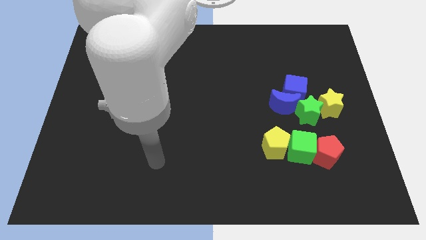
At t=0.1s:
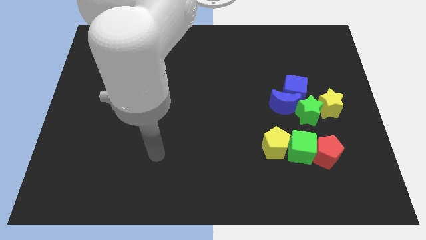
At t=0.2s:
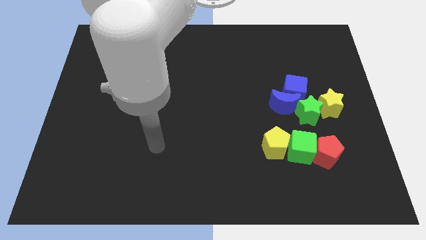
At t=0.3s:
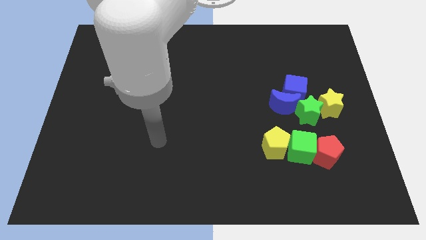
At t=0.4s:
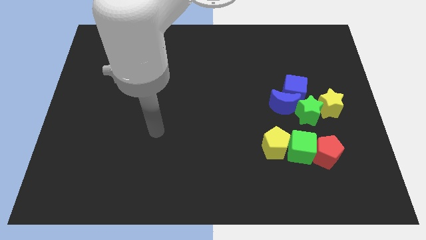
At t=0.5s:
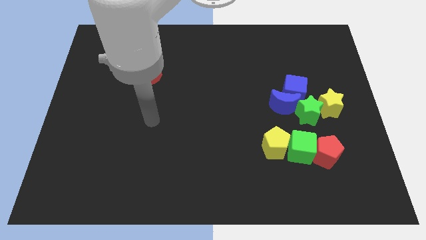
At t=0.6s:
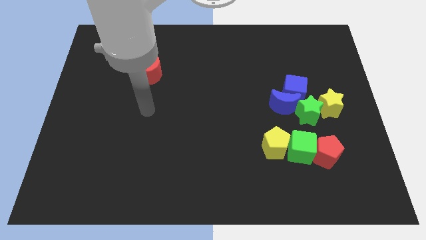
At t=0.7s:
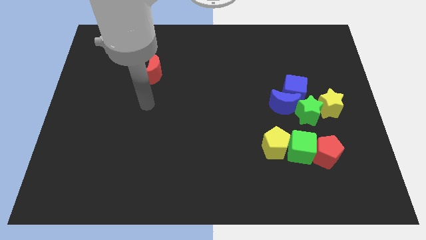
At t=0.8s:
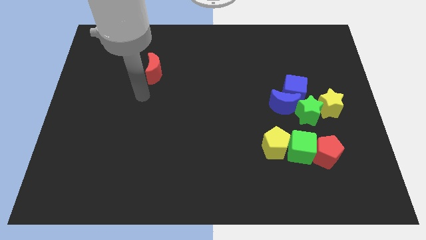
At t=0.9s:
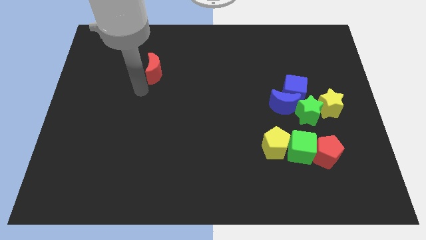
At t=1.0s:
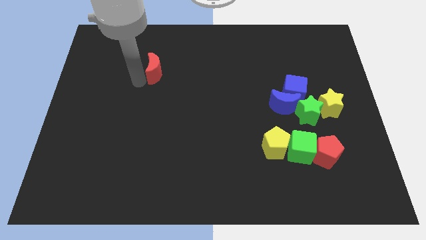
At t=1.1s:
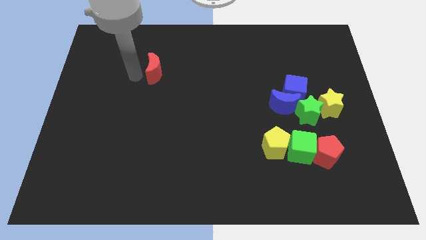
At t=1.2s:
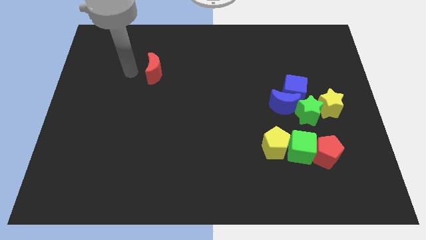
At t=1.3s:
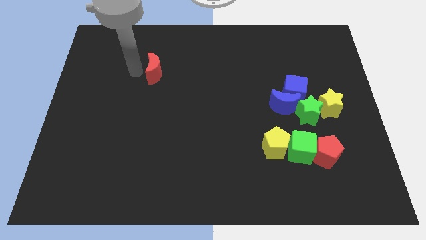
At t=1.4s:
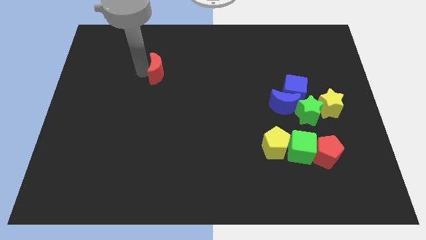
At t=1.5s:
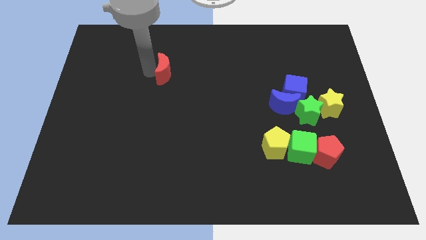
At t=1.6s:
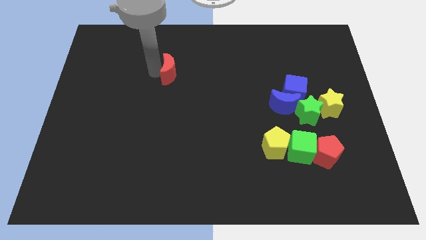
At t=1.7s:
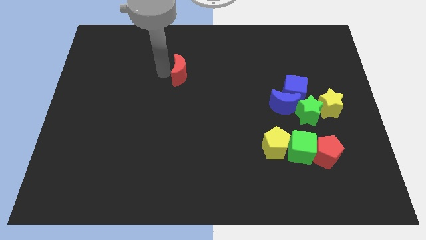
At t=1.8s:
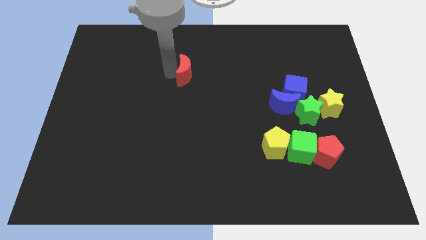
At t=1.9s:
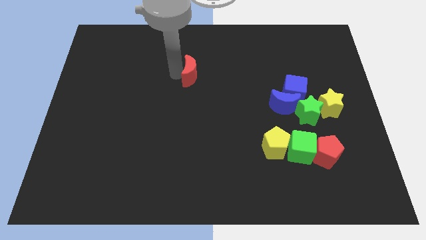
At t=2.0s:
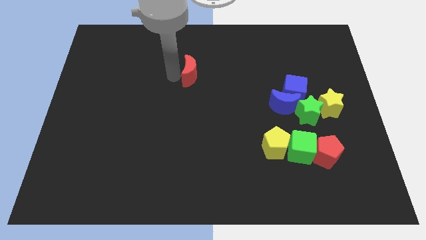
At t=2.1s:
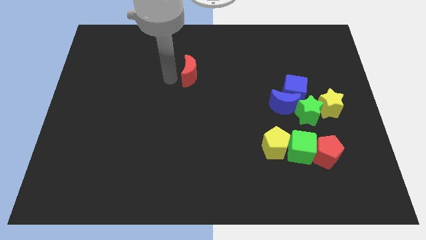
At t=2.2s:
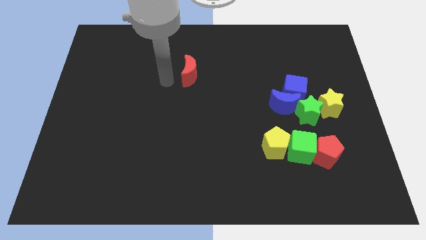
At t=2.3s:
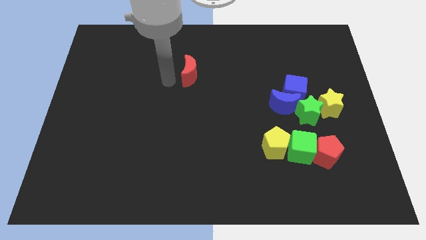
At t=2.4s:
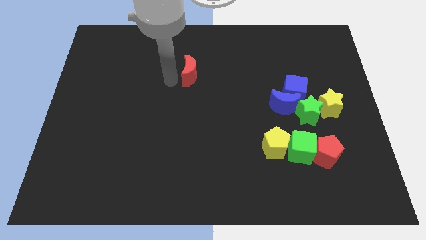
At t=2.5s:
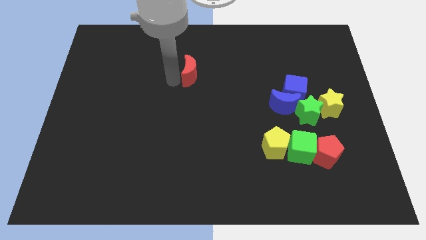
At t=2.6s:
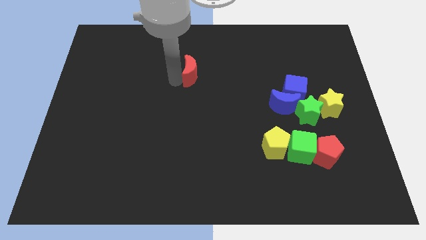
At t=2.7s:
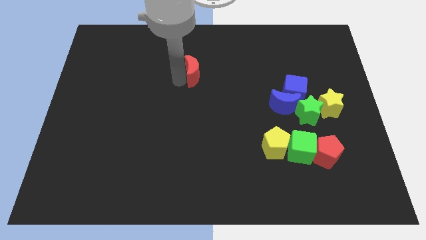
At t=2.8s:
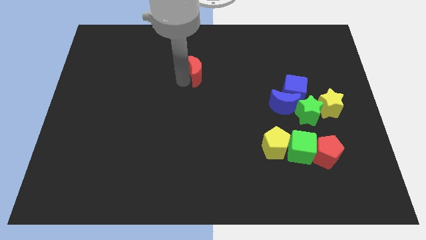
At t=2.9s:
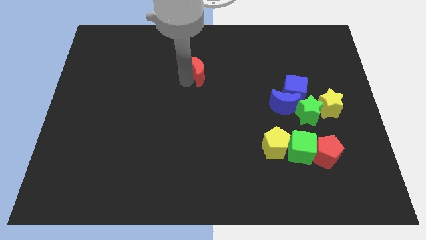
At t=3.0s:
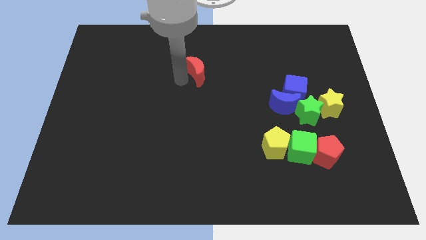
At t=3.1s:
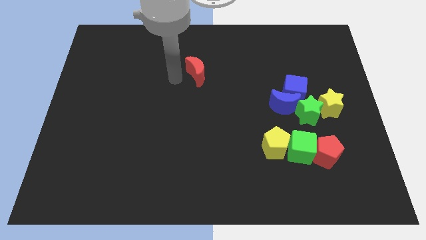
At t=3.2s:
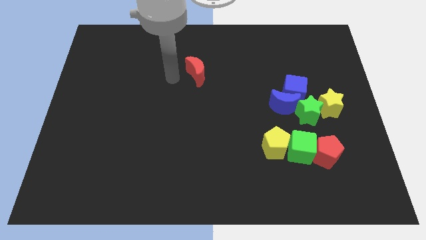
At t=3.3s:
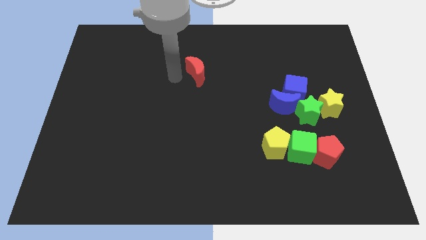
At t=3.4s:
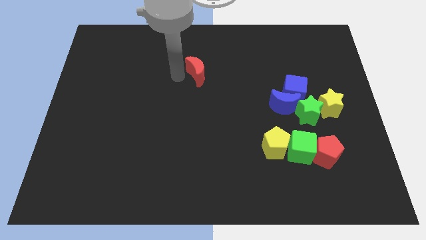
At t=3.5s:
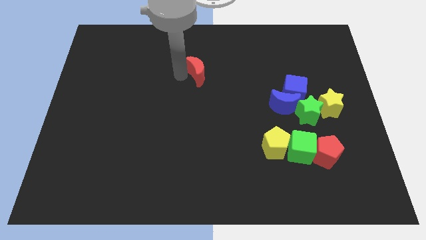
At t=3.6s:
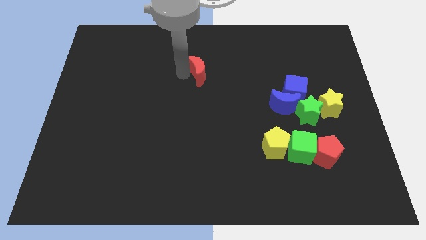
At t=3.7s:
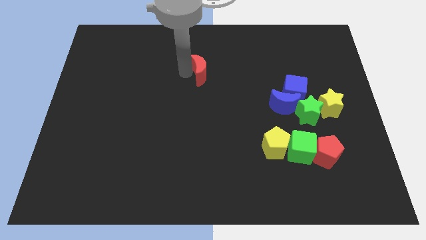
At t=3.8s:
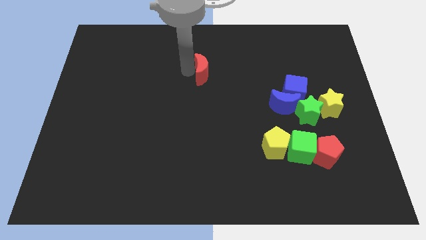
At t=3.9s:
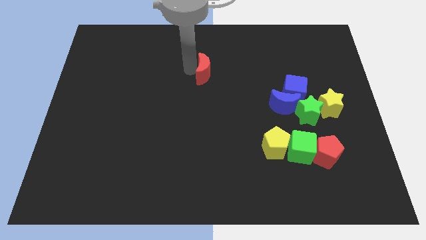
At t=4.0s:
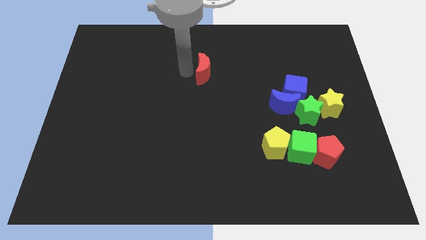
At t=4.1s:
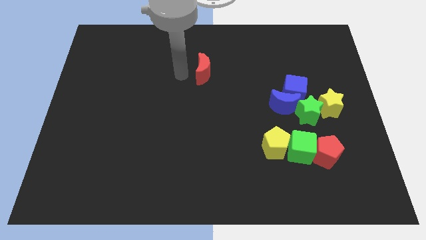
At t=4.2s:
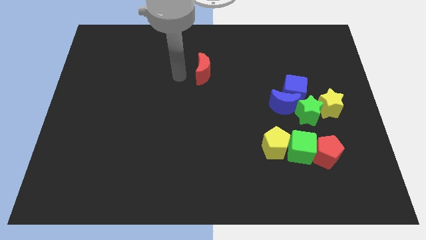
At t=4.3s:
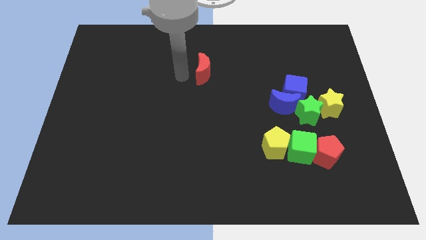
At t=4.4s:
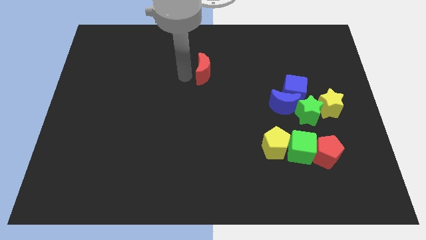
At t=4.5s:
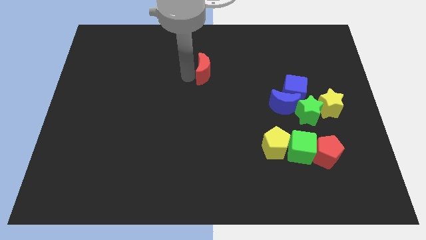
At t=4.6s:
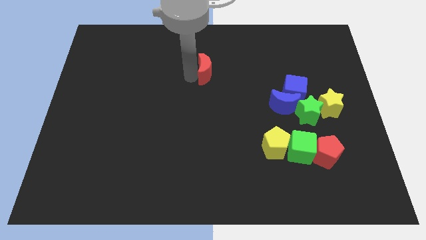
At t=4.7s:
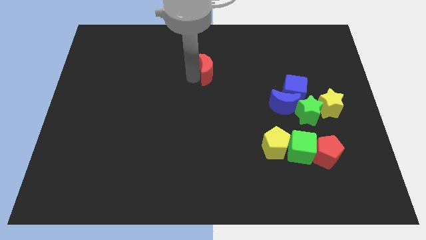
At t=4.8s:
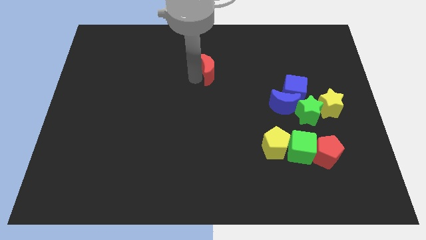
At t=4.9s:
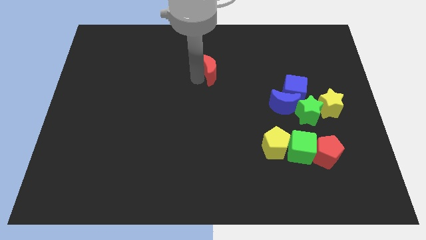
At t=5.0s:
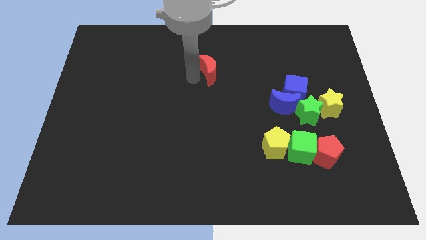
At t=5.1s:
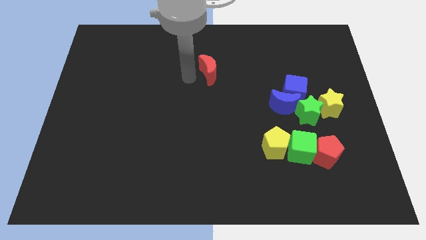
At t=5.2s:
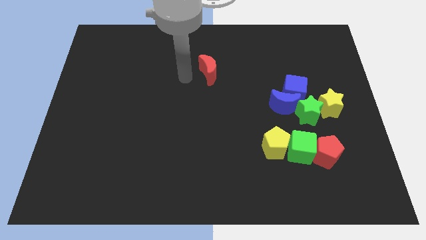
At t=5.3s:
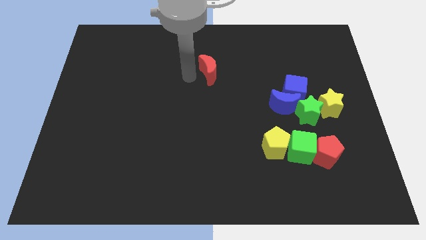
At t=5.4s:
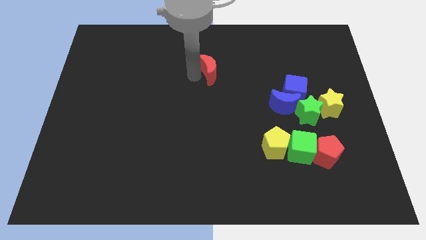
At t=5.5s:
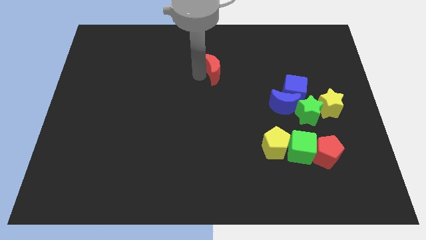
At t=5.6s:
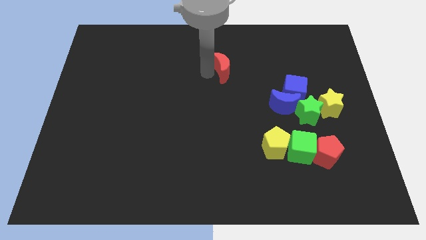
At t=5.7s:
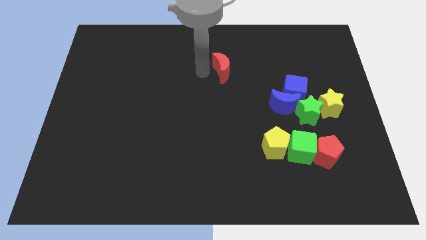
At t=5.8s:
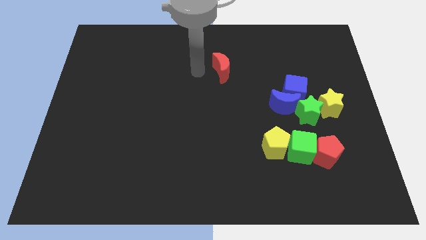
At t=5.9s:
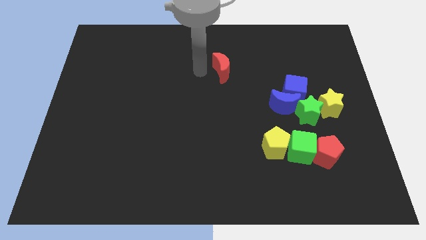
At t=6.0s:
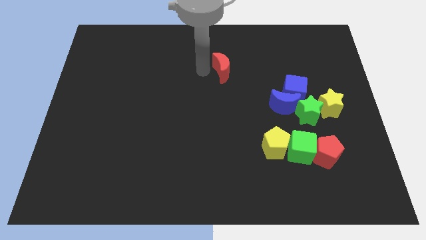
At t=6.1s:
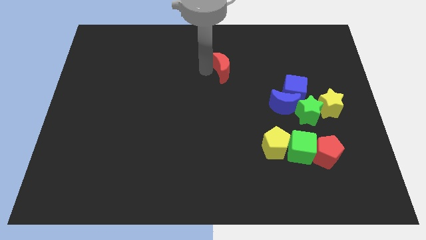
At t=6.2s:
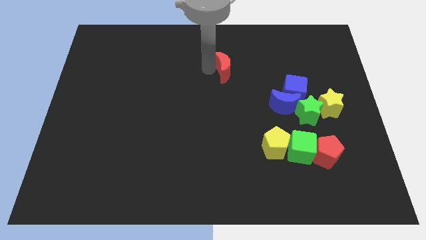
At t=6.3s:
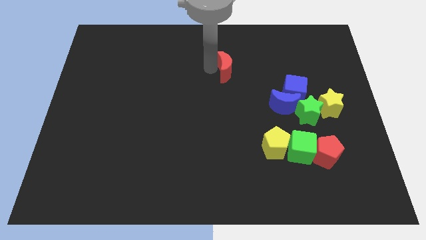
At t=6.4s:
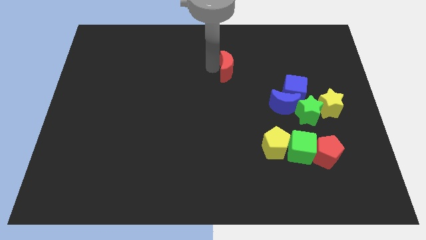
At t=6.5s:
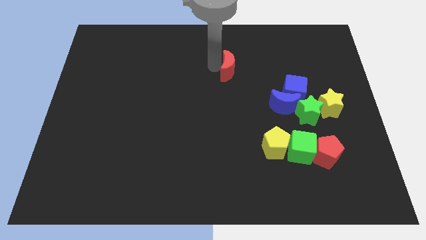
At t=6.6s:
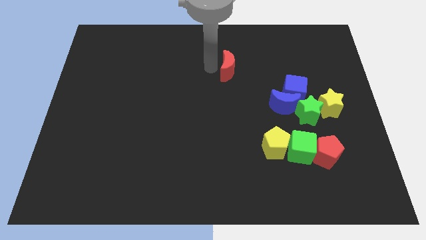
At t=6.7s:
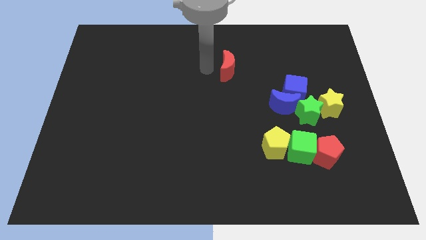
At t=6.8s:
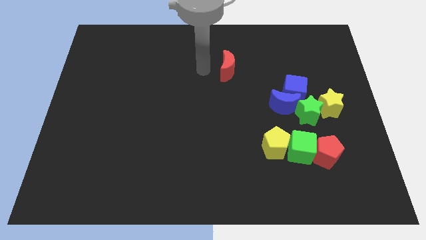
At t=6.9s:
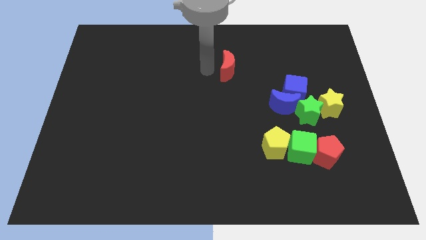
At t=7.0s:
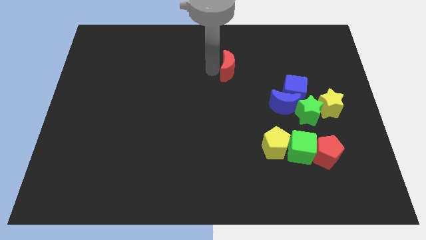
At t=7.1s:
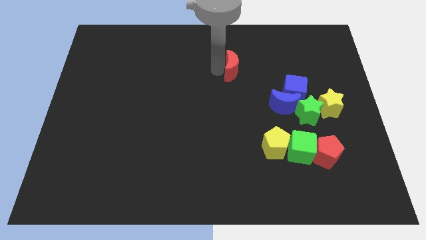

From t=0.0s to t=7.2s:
move the red moon to the right

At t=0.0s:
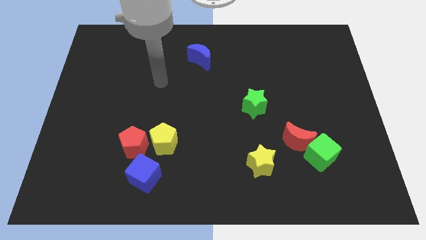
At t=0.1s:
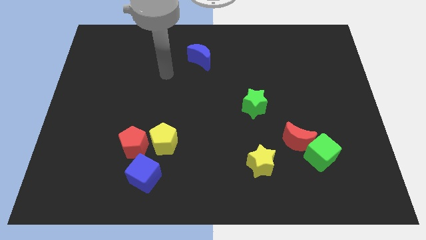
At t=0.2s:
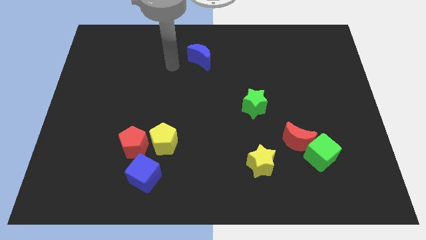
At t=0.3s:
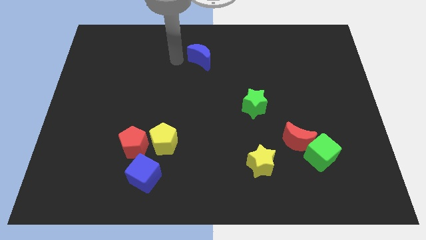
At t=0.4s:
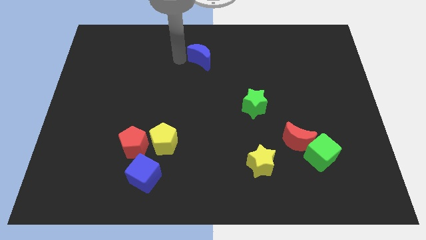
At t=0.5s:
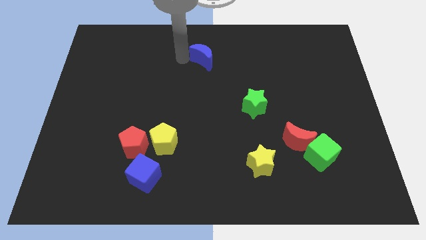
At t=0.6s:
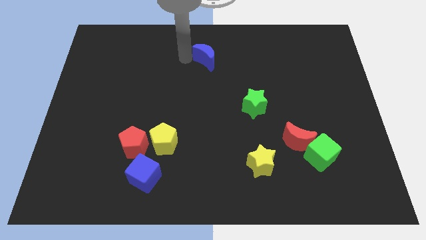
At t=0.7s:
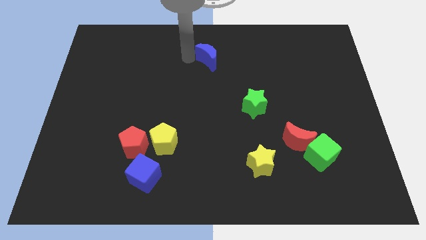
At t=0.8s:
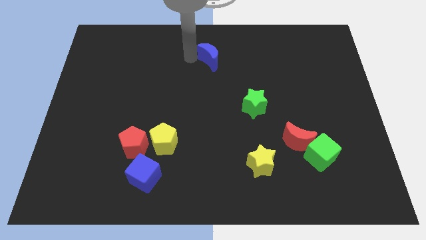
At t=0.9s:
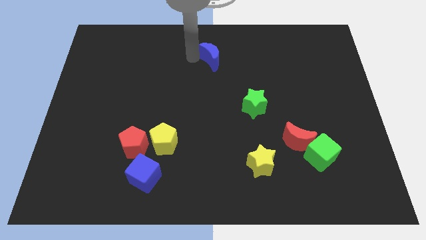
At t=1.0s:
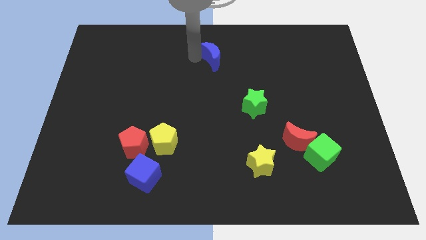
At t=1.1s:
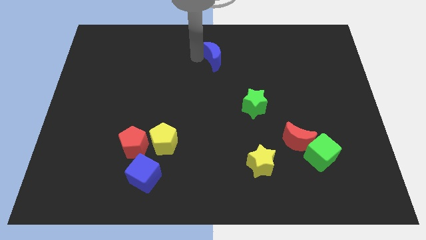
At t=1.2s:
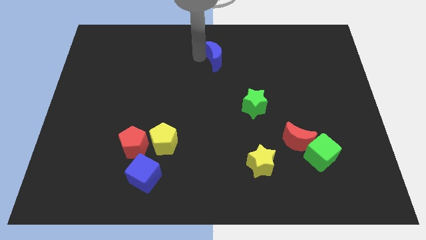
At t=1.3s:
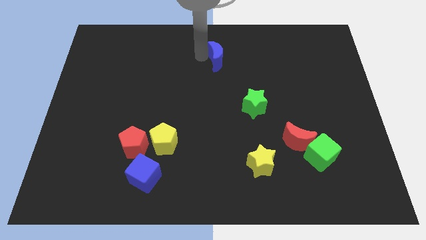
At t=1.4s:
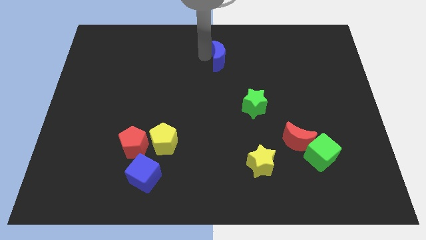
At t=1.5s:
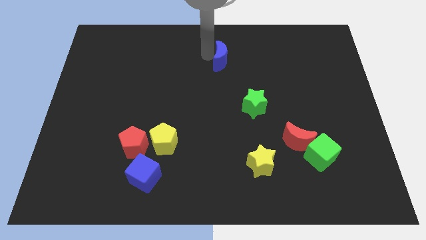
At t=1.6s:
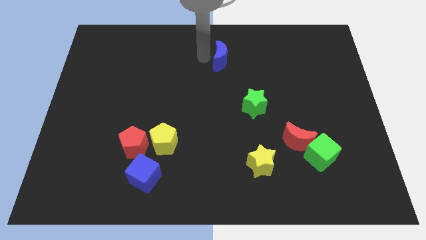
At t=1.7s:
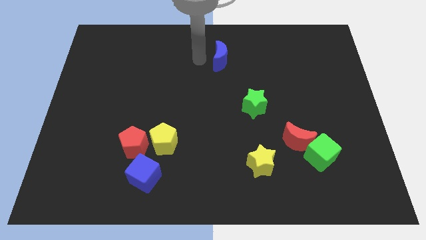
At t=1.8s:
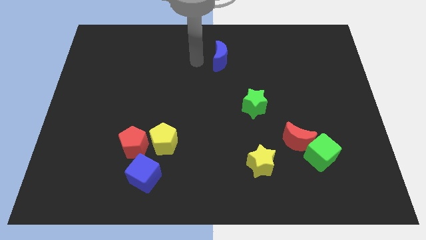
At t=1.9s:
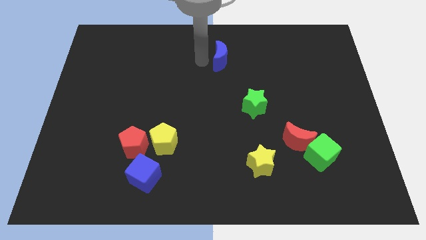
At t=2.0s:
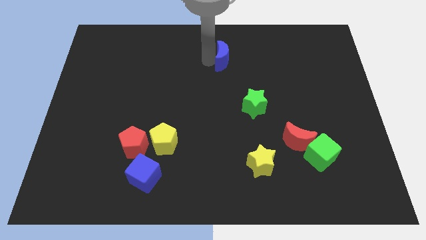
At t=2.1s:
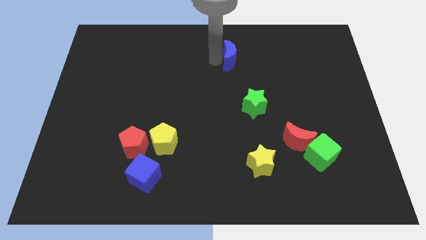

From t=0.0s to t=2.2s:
slide the blue moon a little right
